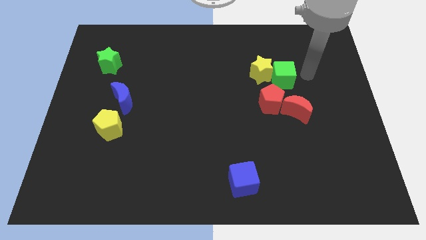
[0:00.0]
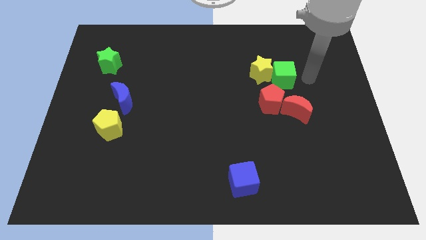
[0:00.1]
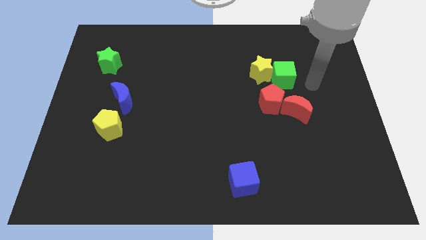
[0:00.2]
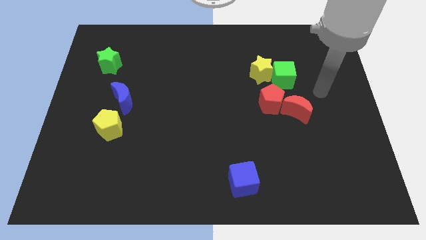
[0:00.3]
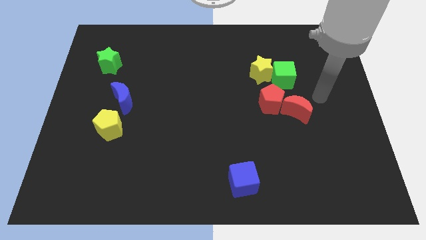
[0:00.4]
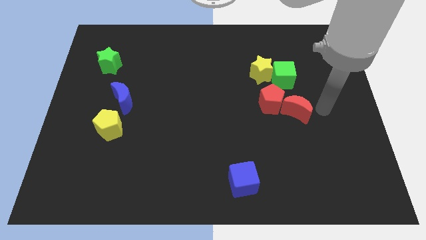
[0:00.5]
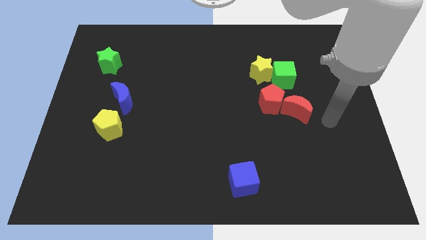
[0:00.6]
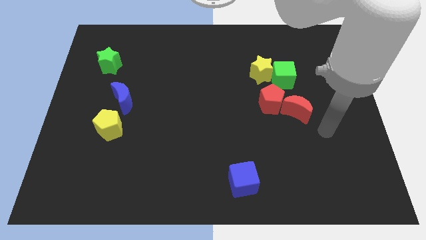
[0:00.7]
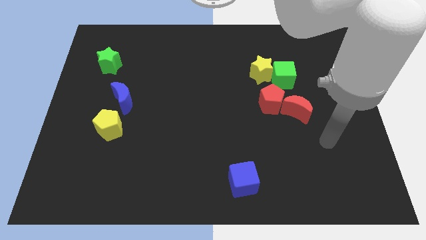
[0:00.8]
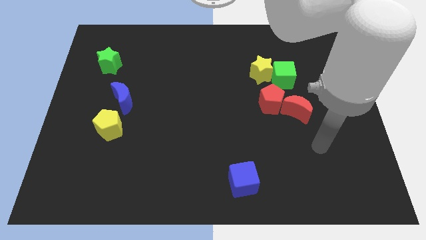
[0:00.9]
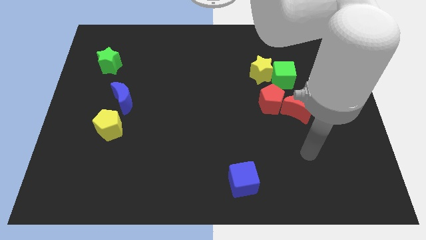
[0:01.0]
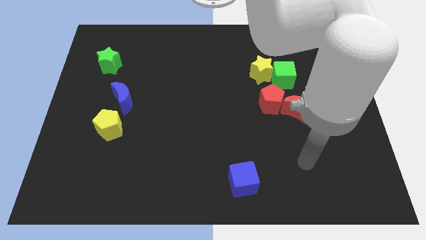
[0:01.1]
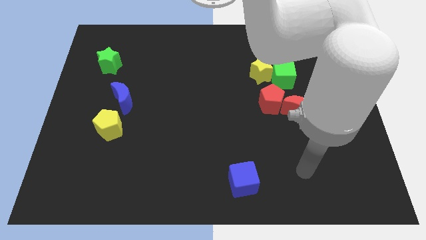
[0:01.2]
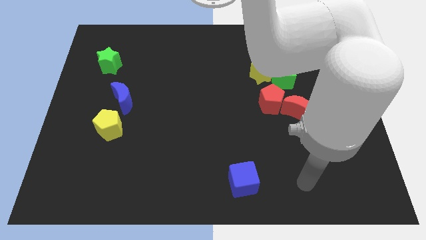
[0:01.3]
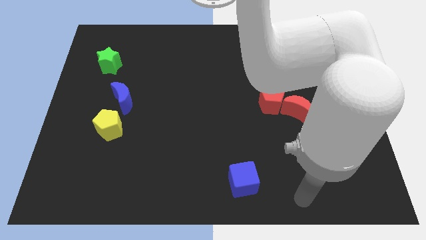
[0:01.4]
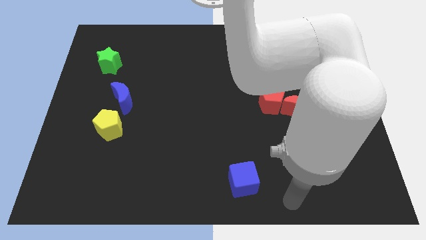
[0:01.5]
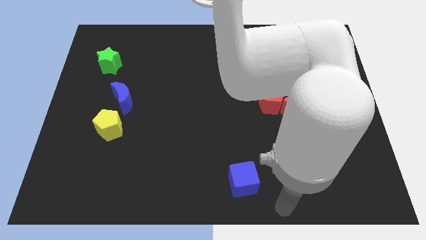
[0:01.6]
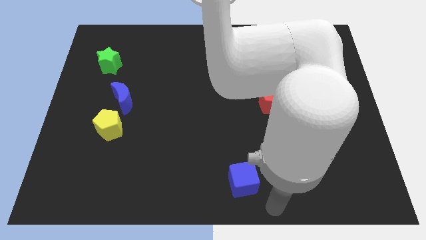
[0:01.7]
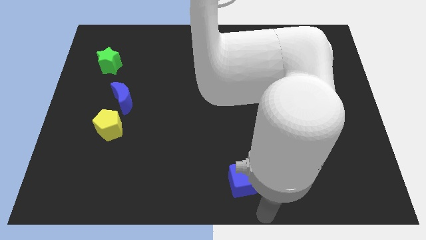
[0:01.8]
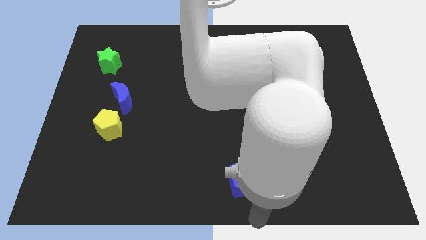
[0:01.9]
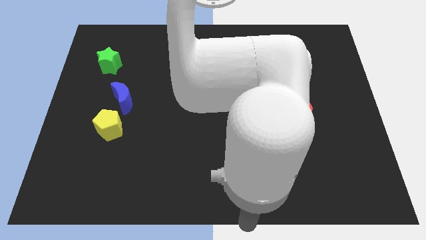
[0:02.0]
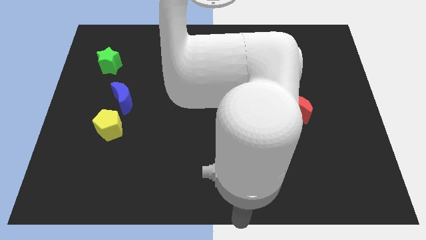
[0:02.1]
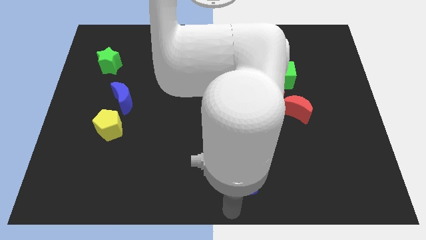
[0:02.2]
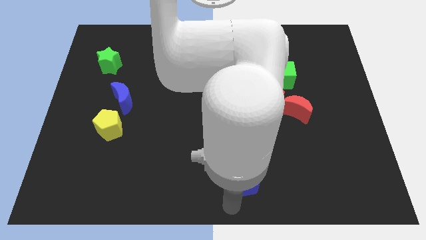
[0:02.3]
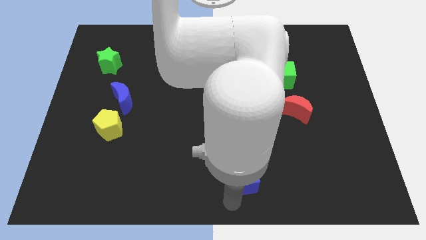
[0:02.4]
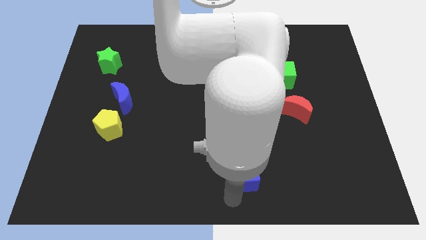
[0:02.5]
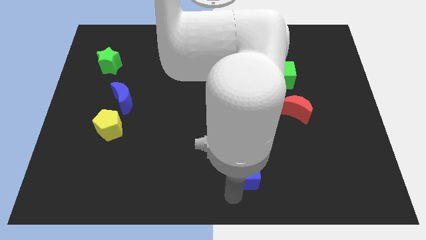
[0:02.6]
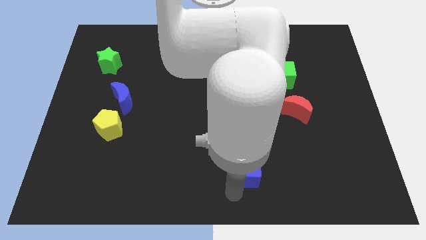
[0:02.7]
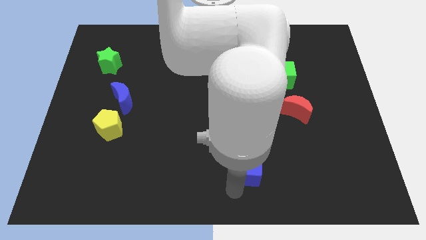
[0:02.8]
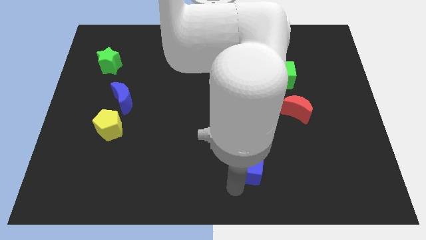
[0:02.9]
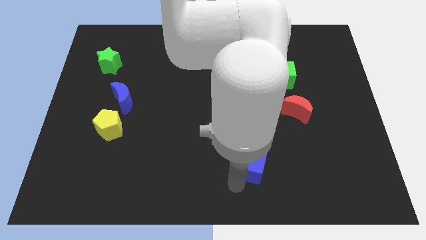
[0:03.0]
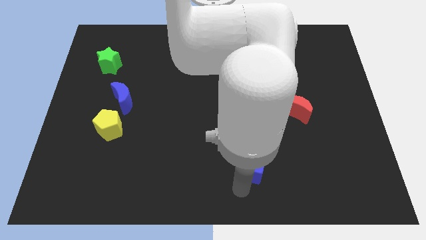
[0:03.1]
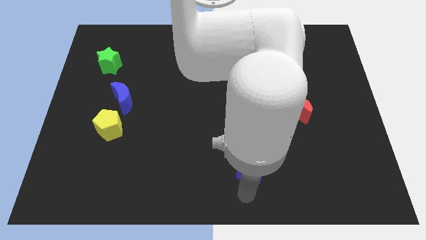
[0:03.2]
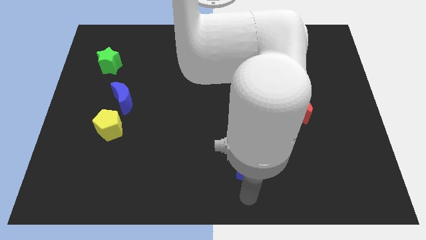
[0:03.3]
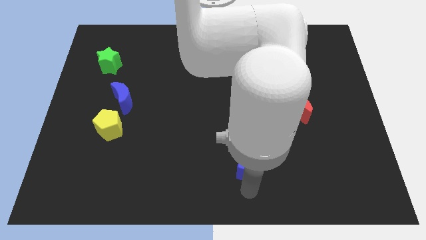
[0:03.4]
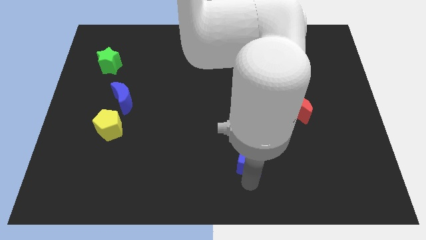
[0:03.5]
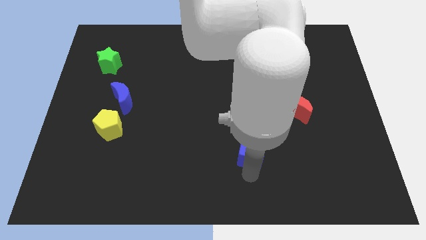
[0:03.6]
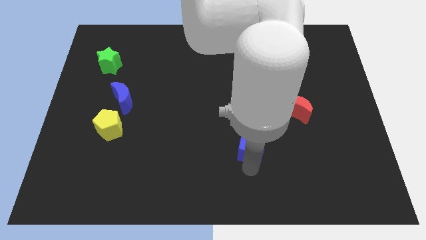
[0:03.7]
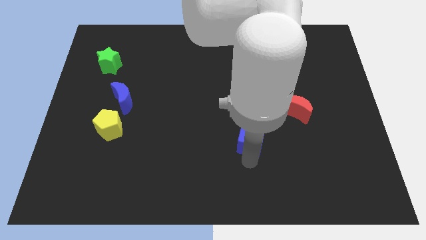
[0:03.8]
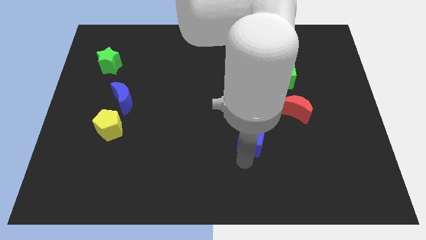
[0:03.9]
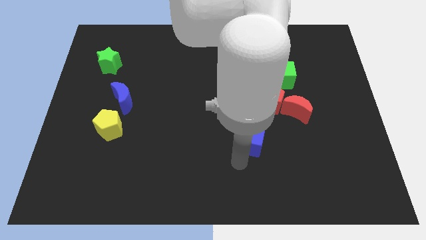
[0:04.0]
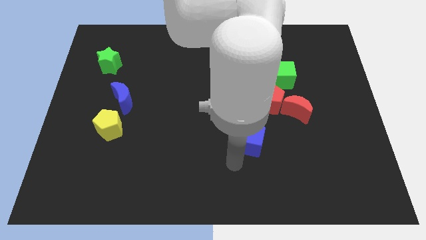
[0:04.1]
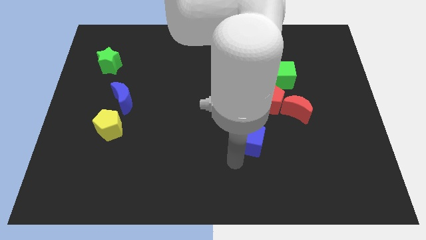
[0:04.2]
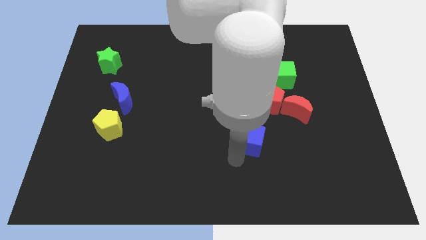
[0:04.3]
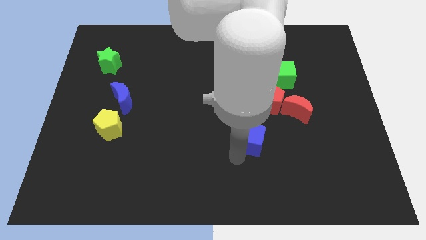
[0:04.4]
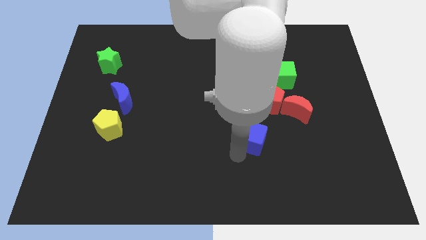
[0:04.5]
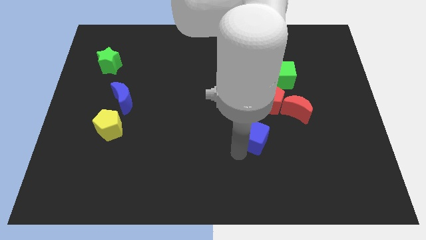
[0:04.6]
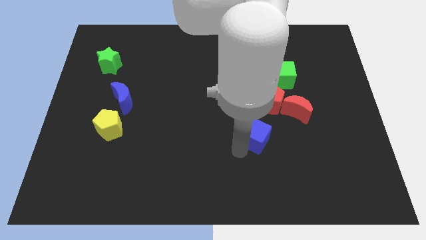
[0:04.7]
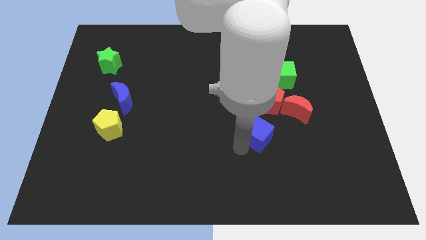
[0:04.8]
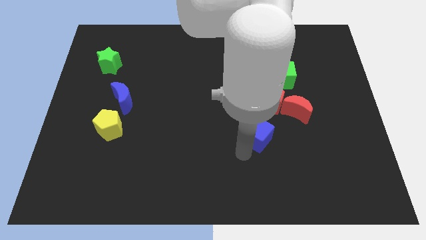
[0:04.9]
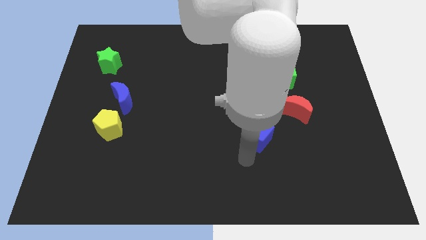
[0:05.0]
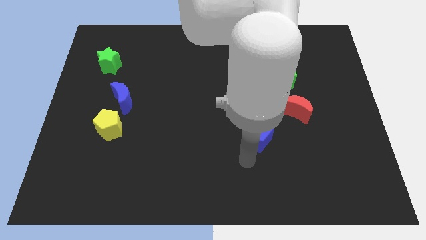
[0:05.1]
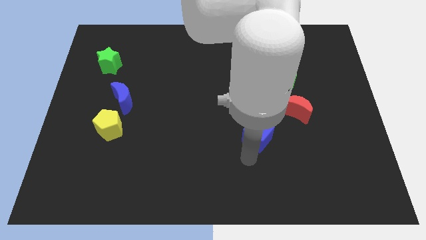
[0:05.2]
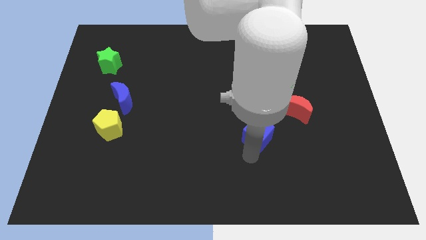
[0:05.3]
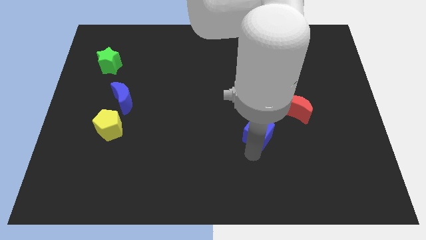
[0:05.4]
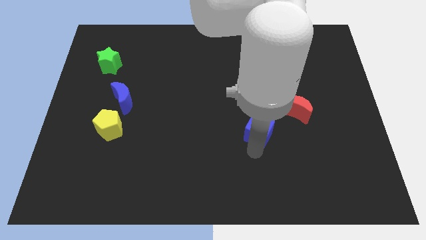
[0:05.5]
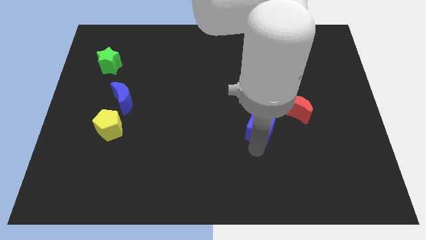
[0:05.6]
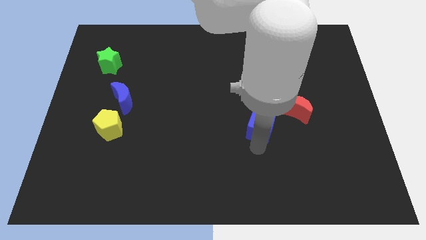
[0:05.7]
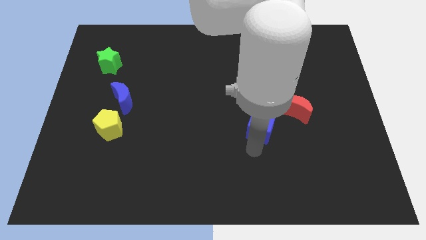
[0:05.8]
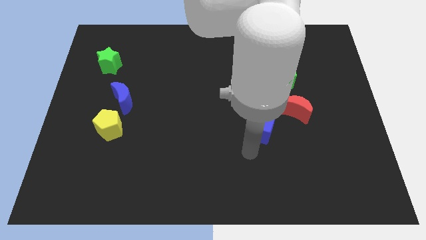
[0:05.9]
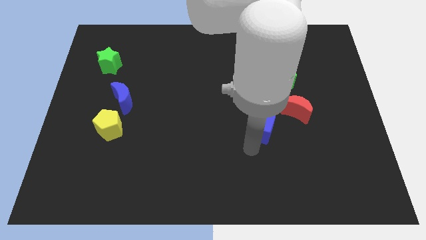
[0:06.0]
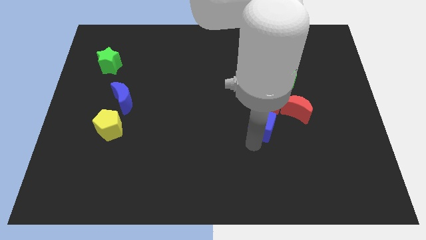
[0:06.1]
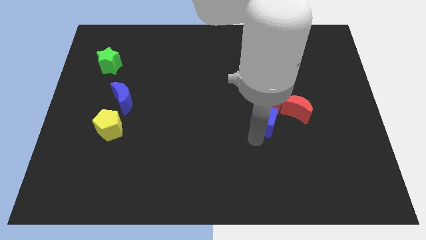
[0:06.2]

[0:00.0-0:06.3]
slide the blue cube close to the red pentagon

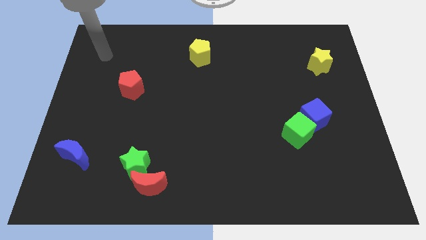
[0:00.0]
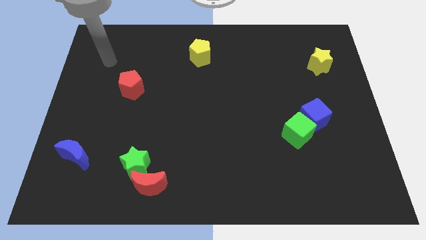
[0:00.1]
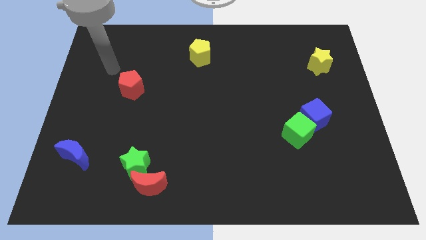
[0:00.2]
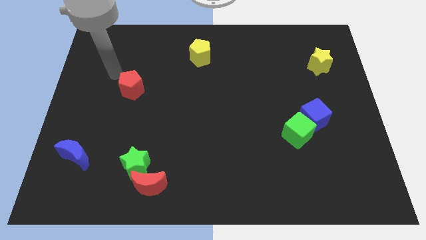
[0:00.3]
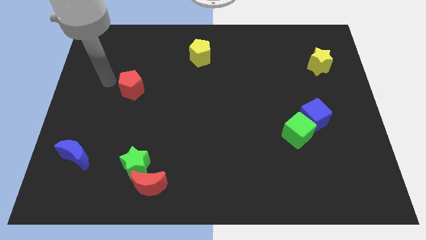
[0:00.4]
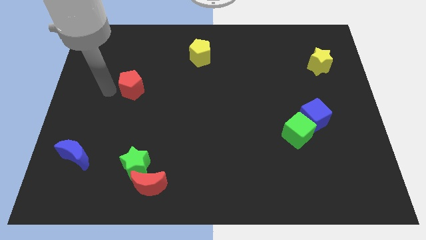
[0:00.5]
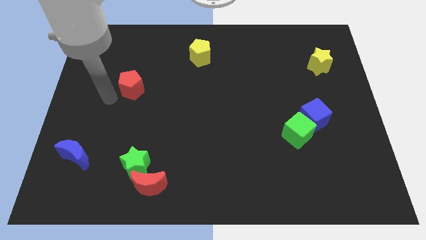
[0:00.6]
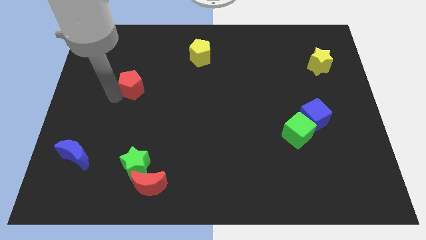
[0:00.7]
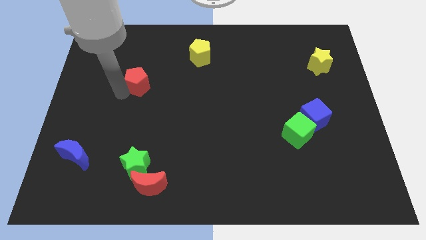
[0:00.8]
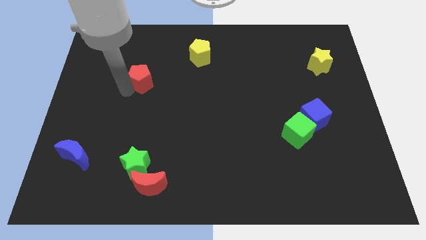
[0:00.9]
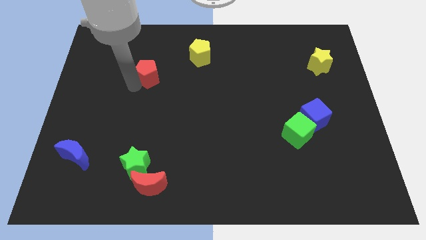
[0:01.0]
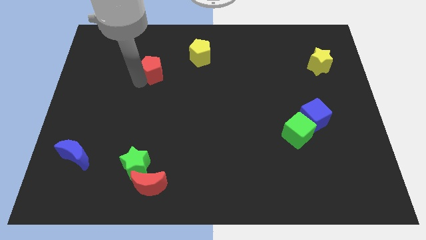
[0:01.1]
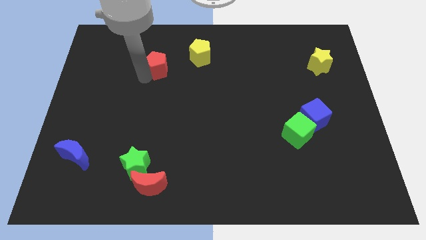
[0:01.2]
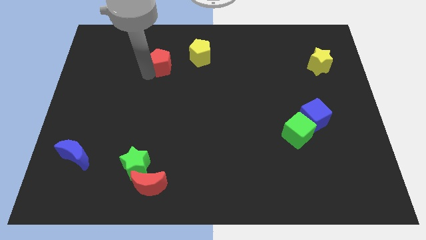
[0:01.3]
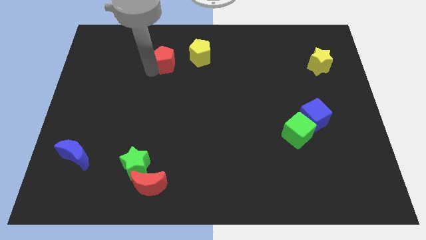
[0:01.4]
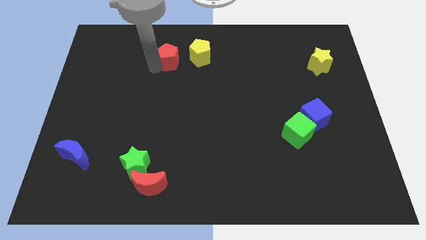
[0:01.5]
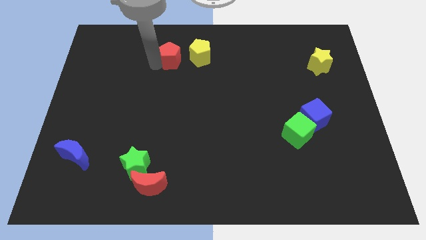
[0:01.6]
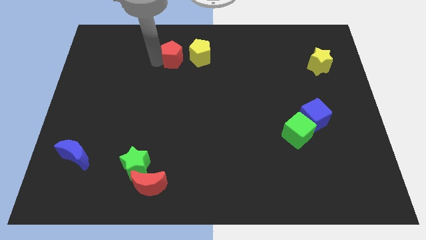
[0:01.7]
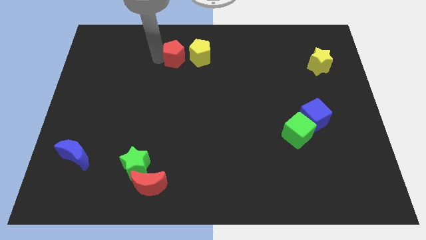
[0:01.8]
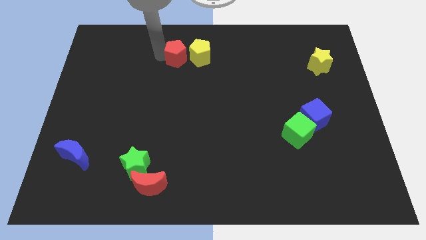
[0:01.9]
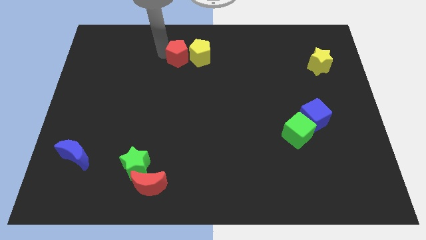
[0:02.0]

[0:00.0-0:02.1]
move the red pentagon to the yellow pentagon
